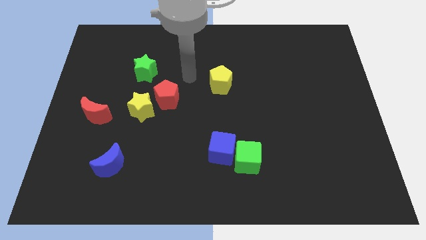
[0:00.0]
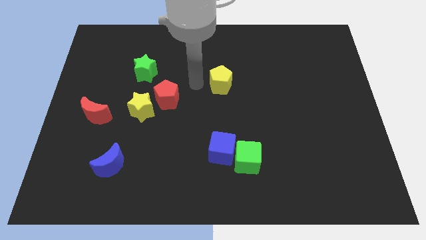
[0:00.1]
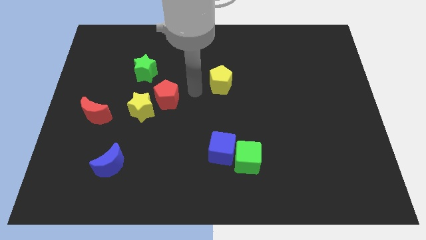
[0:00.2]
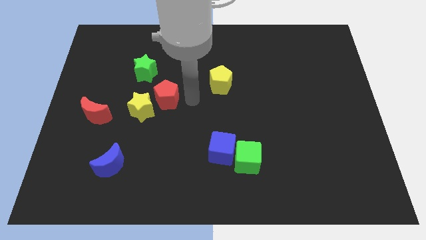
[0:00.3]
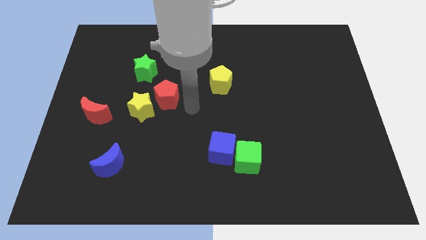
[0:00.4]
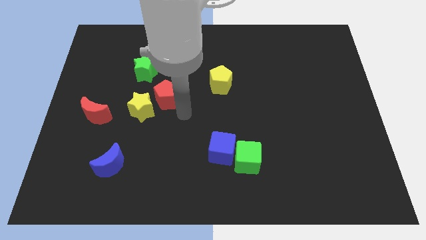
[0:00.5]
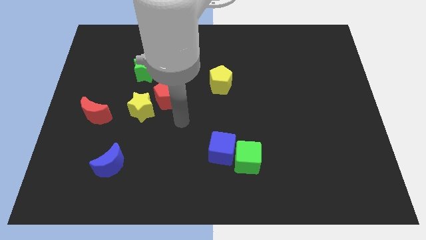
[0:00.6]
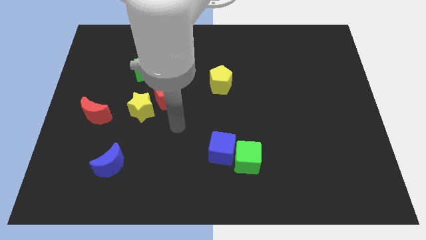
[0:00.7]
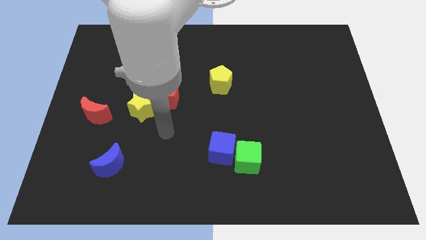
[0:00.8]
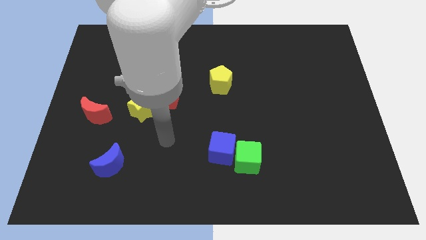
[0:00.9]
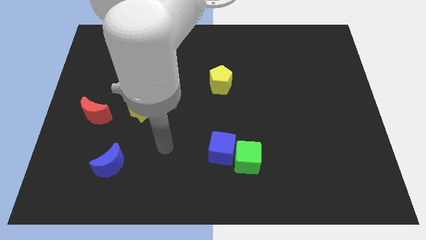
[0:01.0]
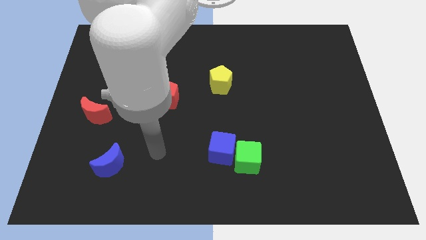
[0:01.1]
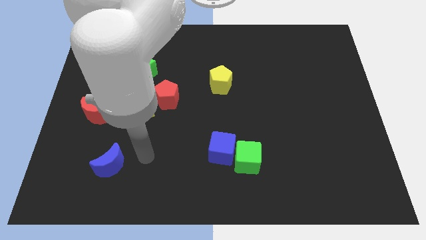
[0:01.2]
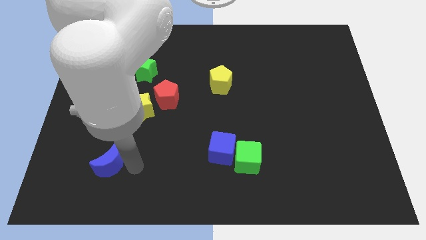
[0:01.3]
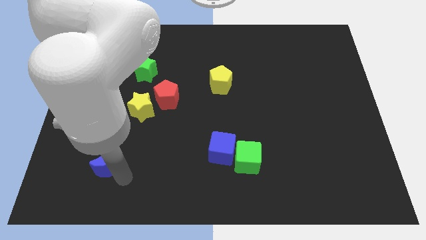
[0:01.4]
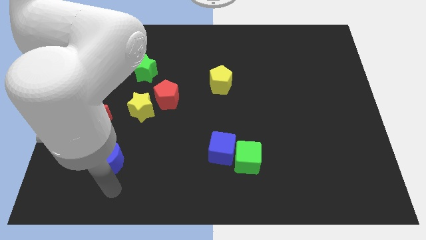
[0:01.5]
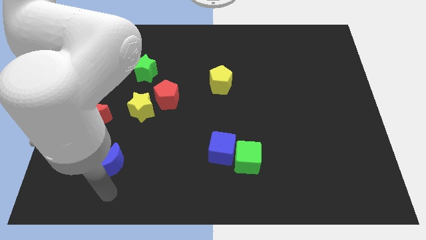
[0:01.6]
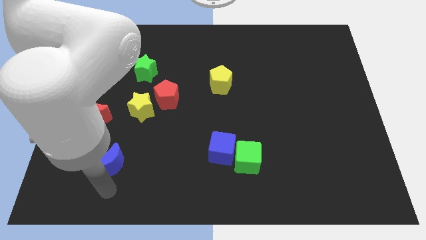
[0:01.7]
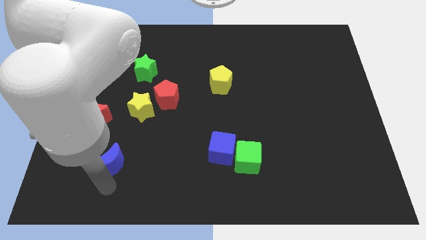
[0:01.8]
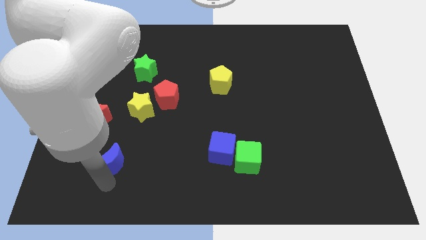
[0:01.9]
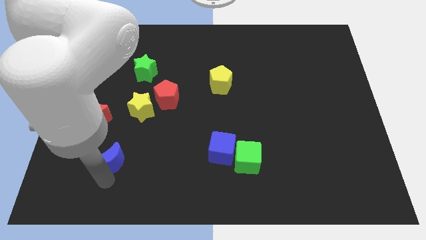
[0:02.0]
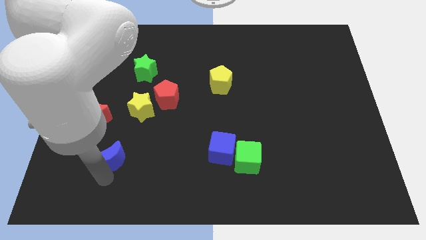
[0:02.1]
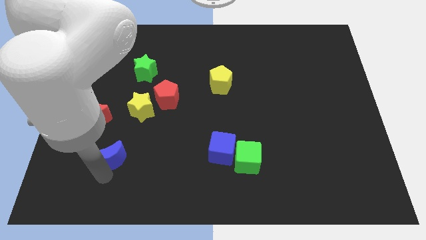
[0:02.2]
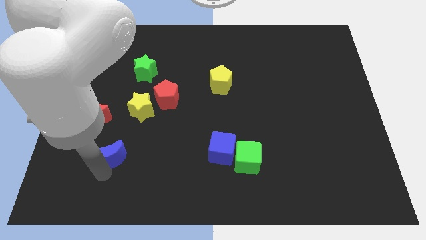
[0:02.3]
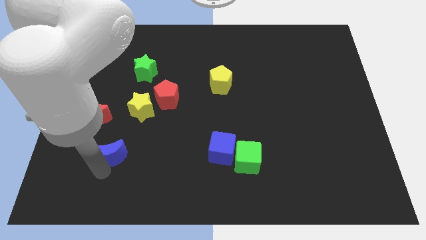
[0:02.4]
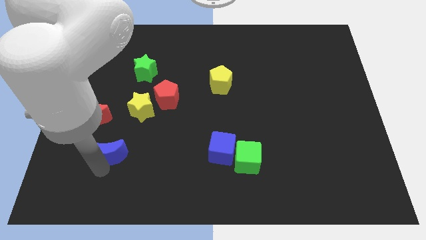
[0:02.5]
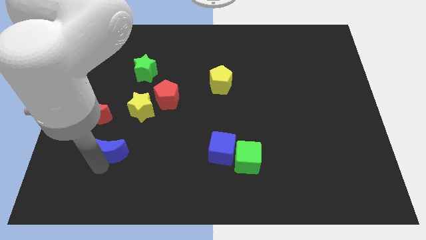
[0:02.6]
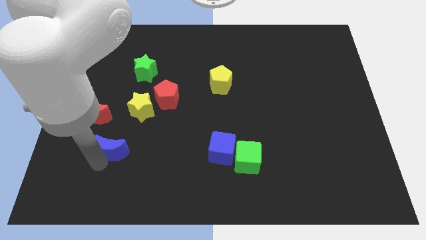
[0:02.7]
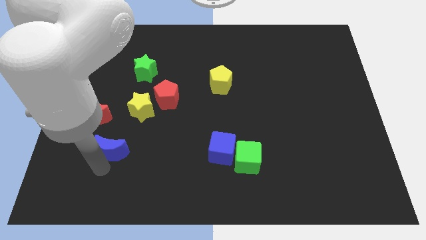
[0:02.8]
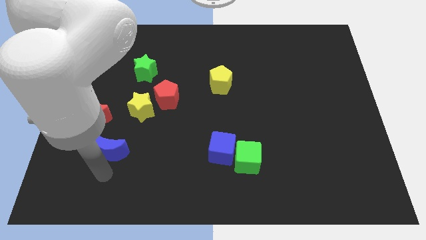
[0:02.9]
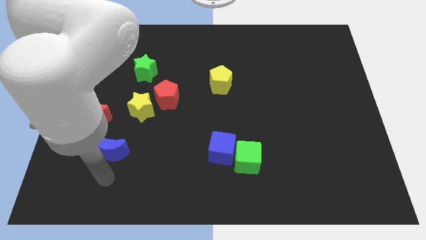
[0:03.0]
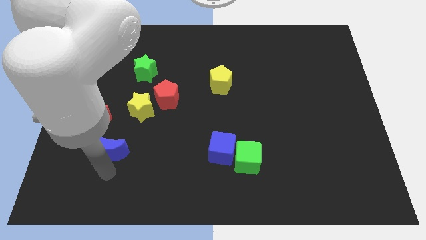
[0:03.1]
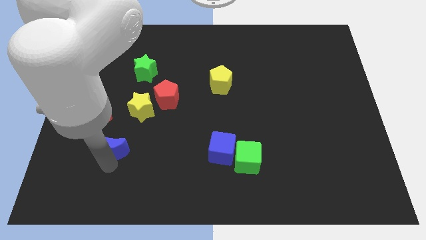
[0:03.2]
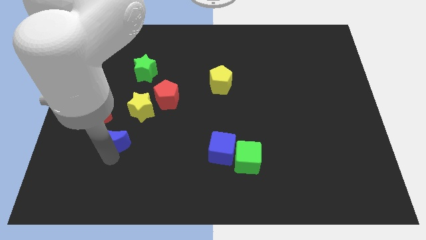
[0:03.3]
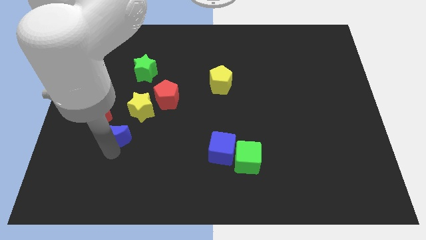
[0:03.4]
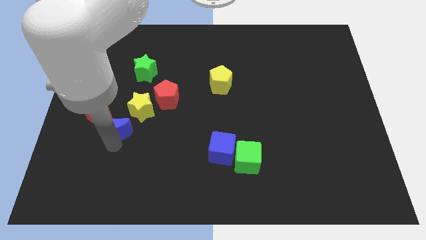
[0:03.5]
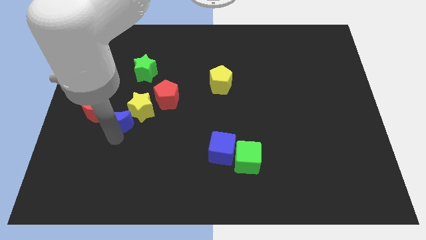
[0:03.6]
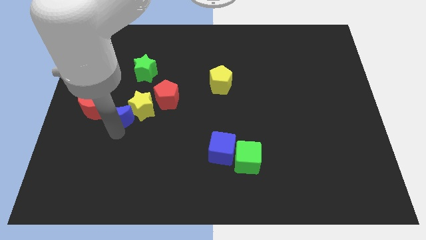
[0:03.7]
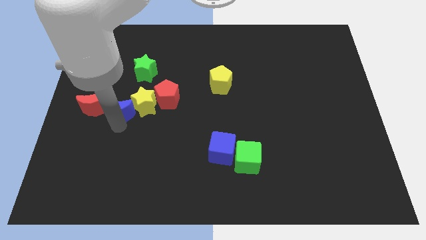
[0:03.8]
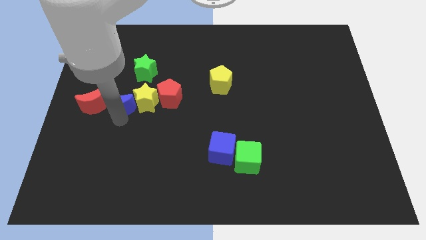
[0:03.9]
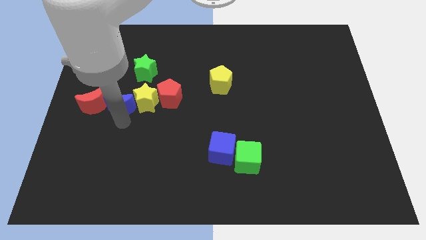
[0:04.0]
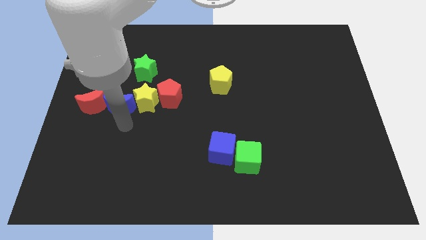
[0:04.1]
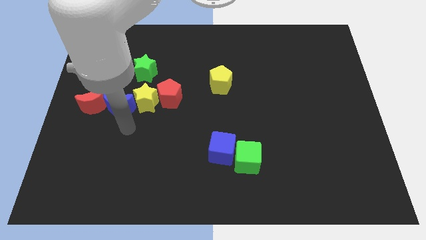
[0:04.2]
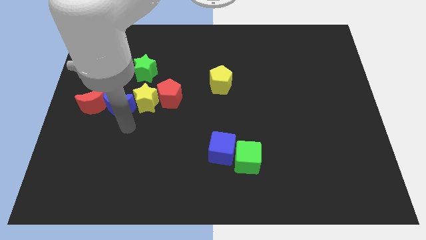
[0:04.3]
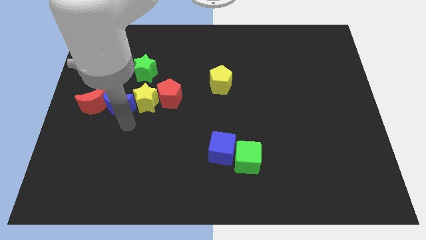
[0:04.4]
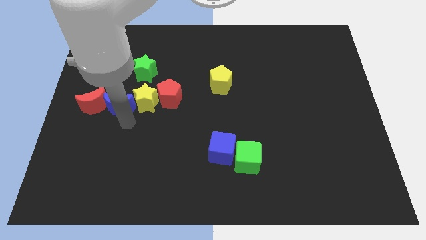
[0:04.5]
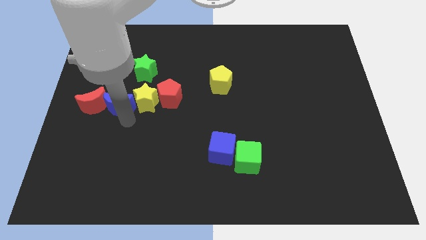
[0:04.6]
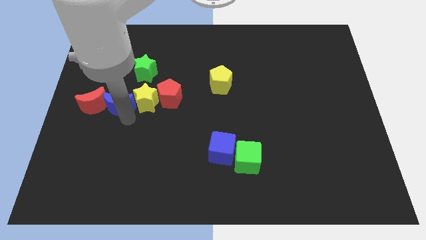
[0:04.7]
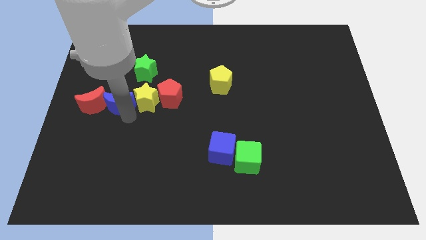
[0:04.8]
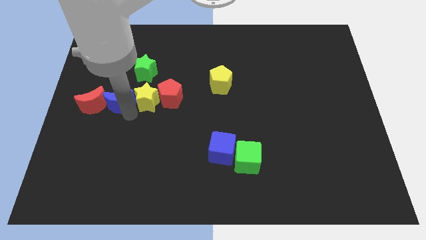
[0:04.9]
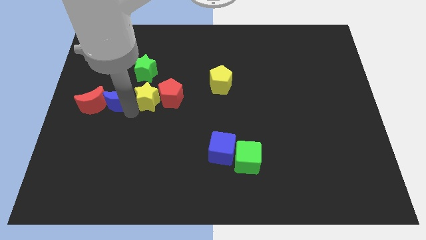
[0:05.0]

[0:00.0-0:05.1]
push the blue moon to the bottom left side of the green star

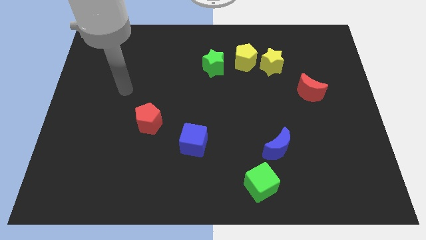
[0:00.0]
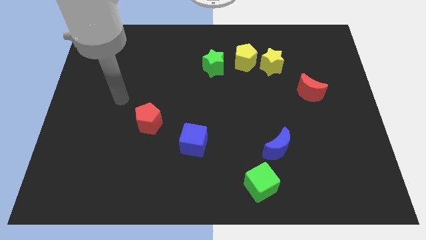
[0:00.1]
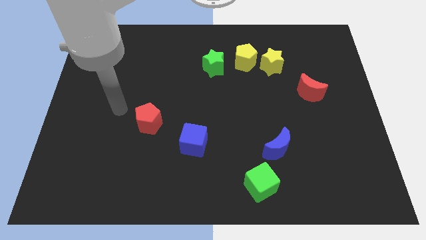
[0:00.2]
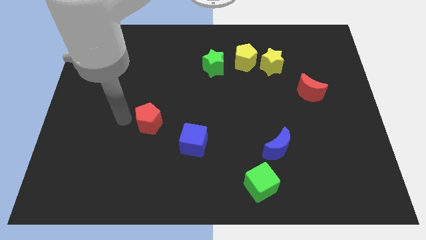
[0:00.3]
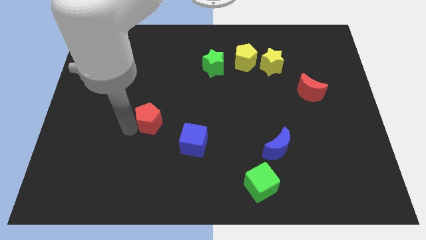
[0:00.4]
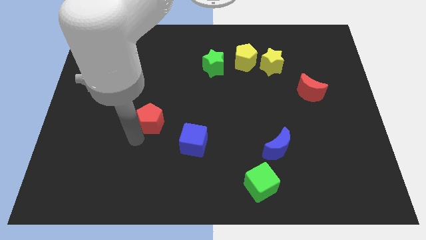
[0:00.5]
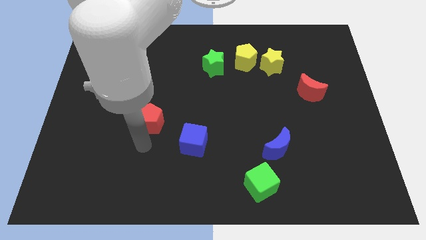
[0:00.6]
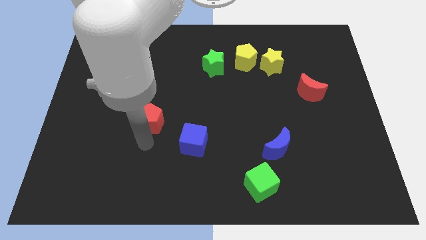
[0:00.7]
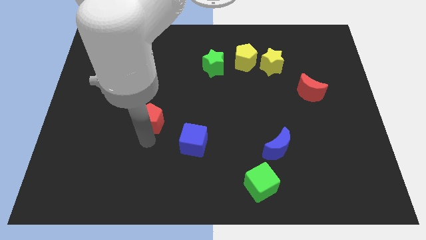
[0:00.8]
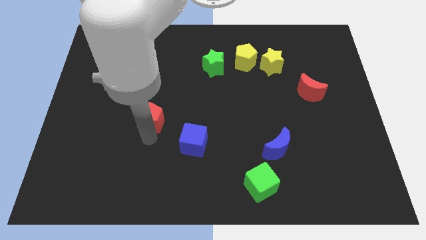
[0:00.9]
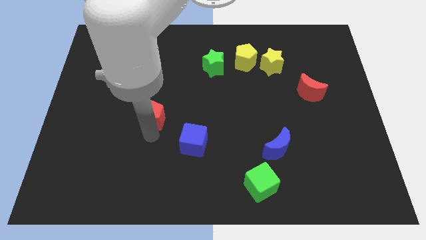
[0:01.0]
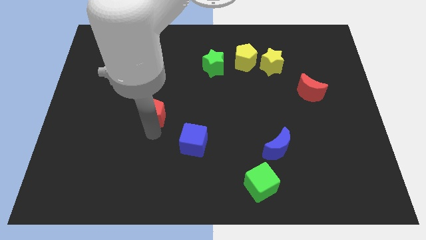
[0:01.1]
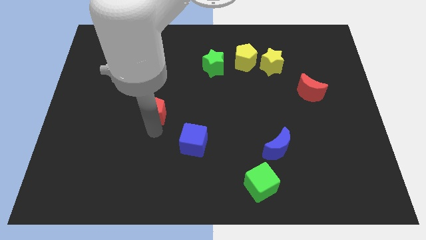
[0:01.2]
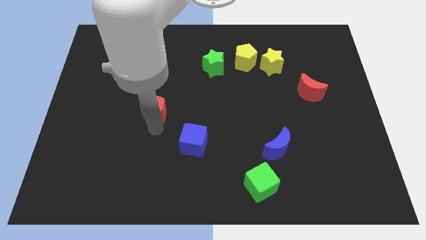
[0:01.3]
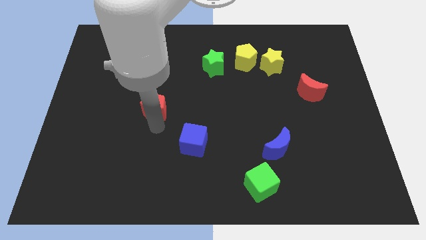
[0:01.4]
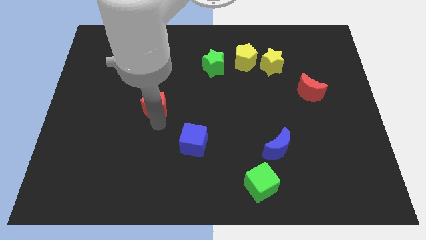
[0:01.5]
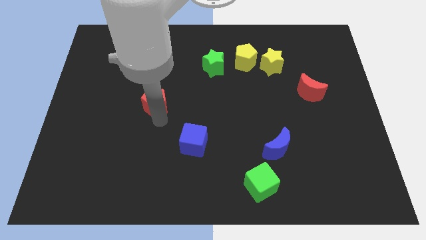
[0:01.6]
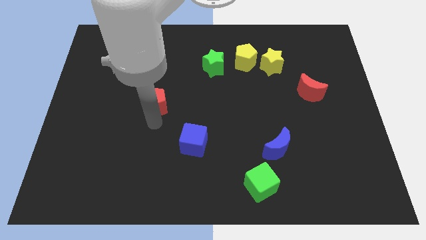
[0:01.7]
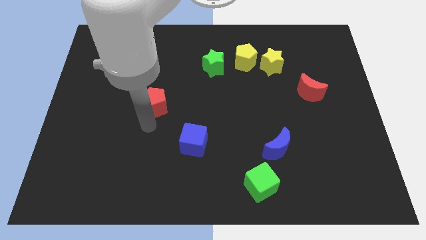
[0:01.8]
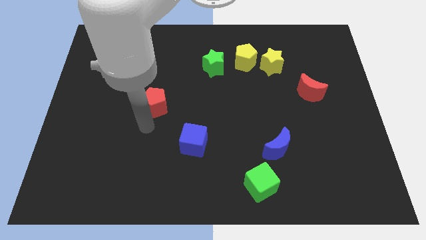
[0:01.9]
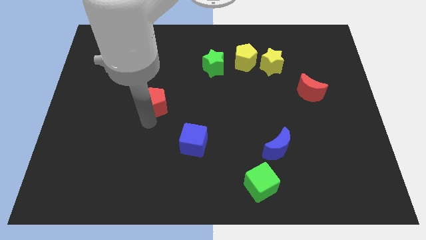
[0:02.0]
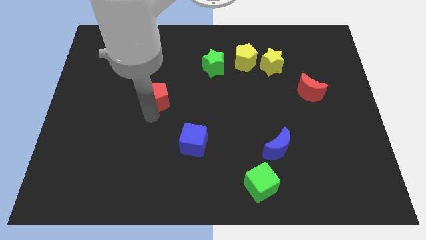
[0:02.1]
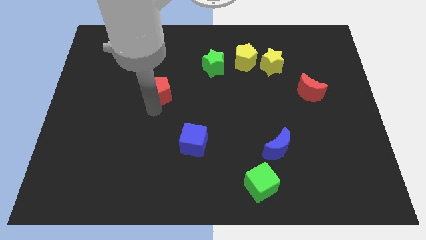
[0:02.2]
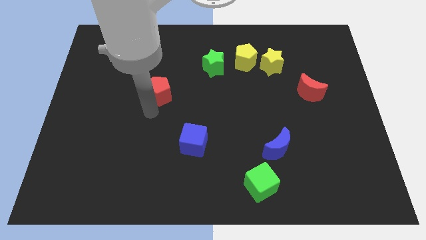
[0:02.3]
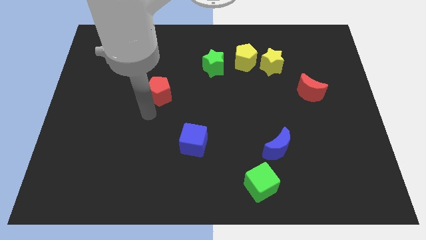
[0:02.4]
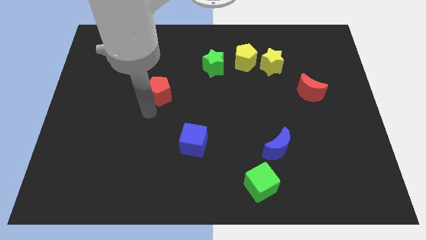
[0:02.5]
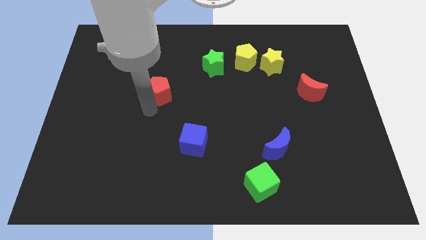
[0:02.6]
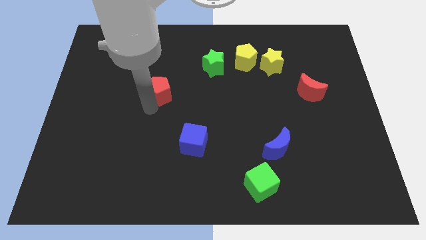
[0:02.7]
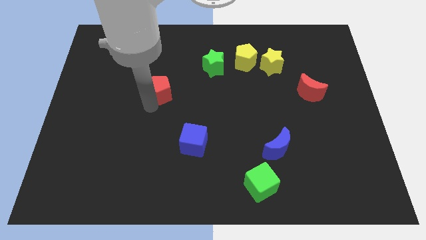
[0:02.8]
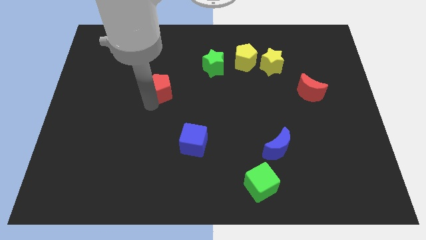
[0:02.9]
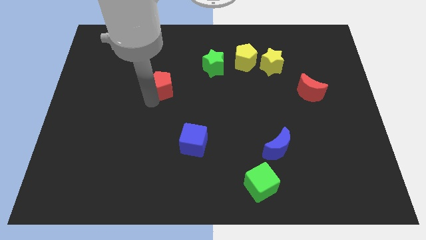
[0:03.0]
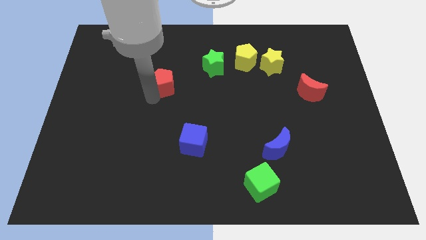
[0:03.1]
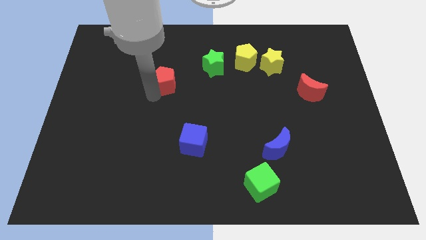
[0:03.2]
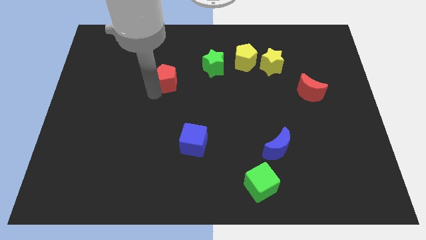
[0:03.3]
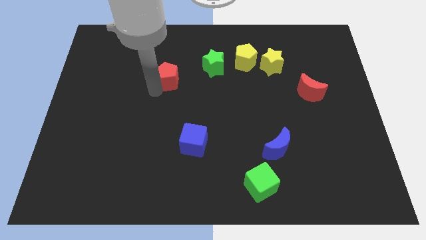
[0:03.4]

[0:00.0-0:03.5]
put the red pentagon to the left side of the green star
